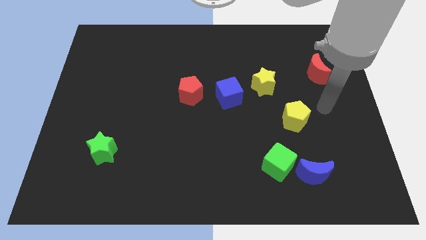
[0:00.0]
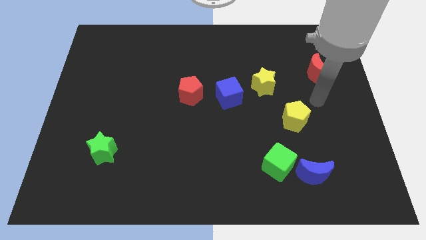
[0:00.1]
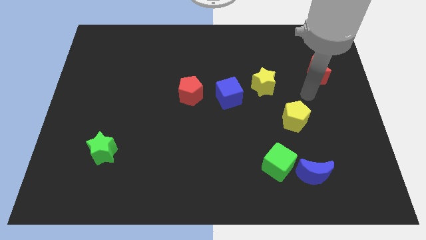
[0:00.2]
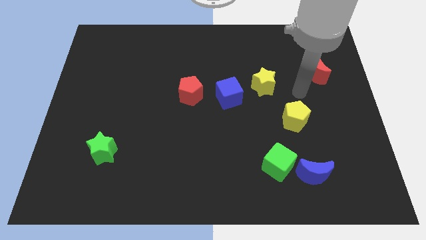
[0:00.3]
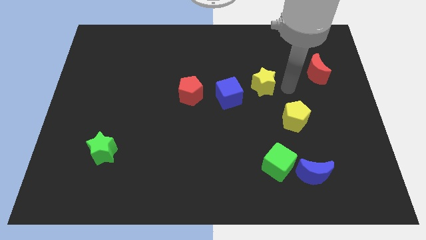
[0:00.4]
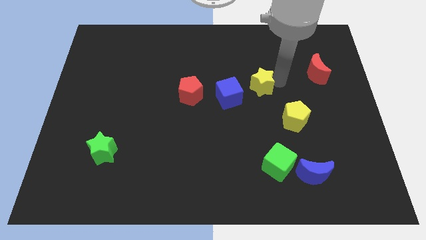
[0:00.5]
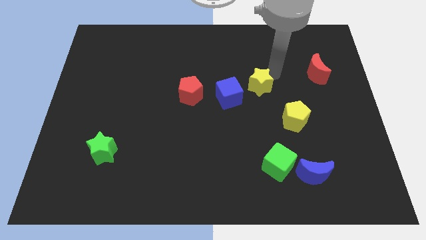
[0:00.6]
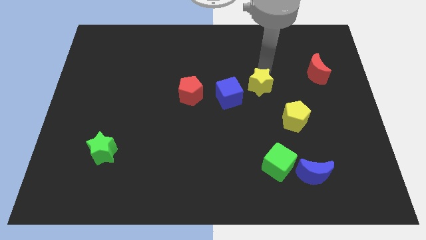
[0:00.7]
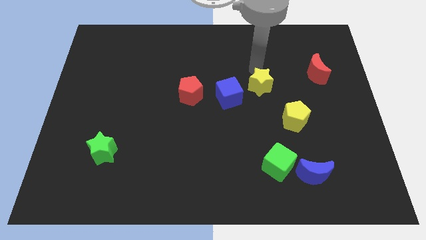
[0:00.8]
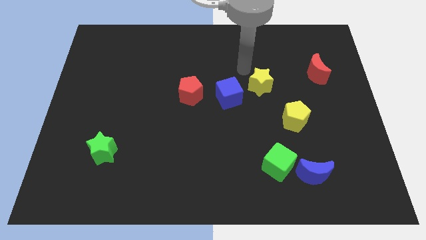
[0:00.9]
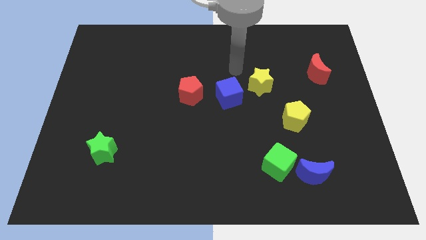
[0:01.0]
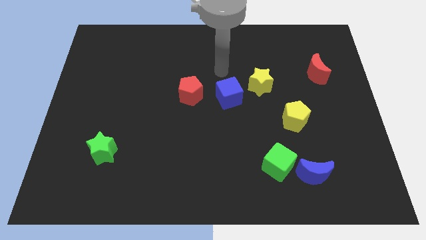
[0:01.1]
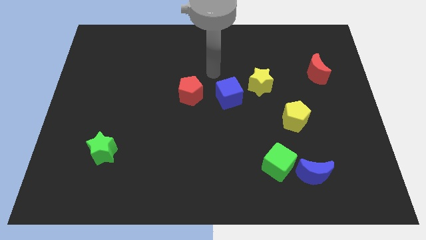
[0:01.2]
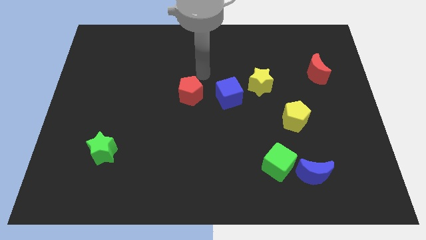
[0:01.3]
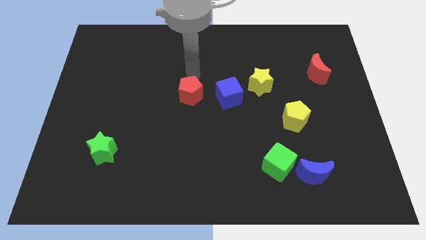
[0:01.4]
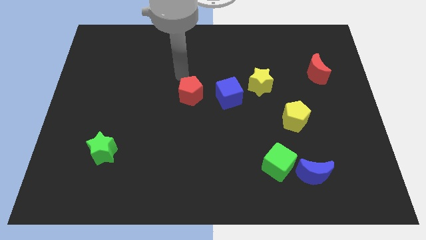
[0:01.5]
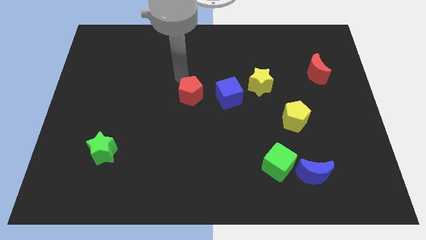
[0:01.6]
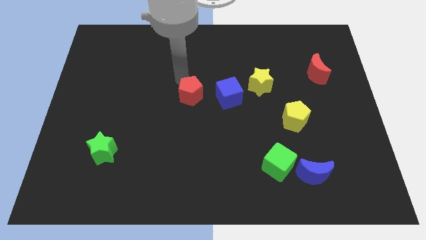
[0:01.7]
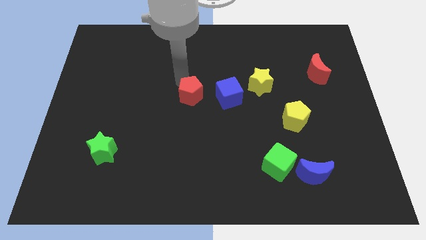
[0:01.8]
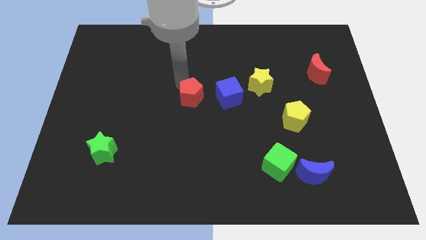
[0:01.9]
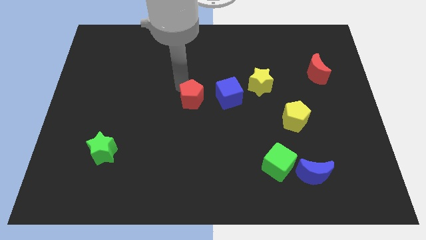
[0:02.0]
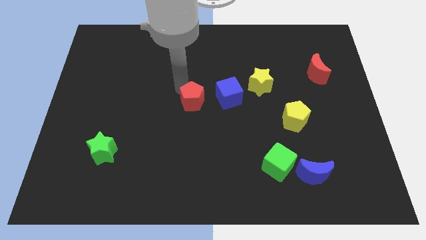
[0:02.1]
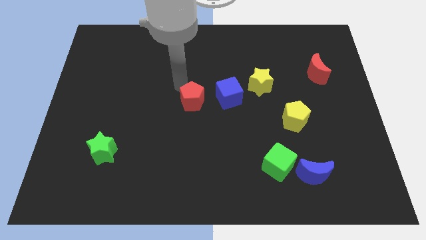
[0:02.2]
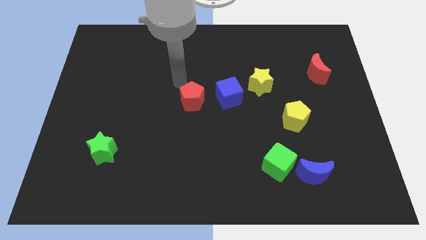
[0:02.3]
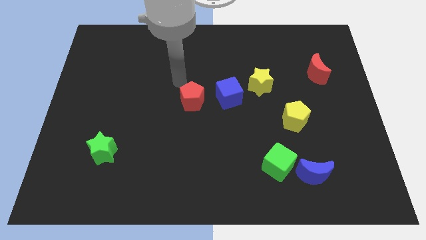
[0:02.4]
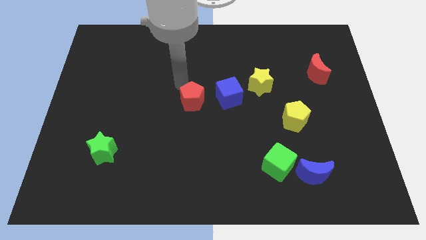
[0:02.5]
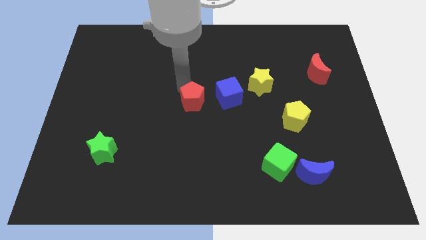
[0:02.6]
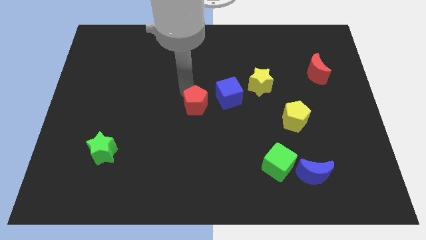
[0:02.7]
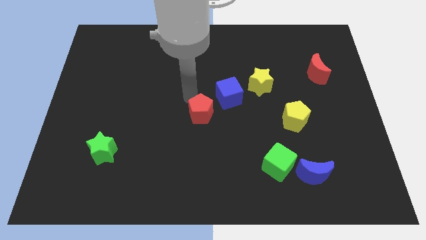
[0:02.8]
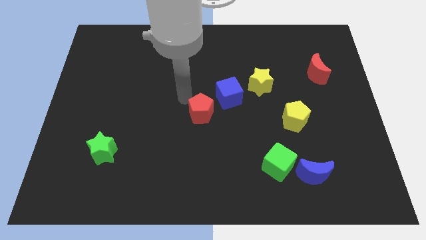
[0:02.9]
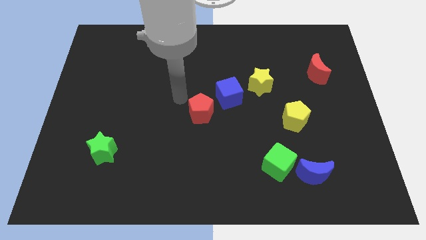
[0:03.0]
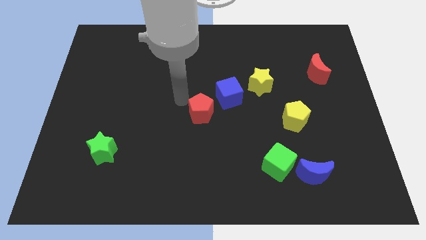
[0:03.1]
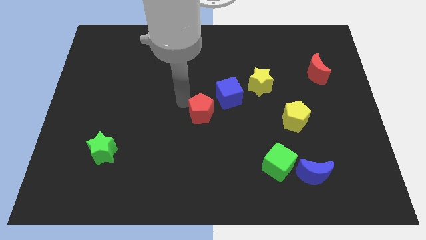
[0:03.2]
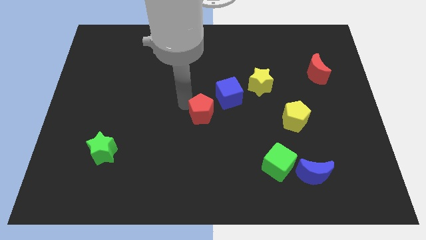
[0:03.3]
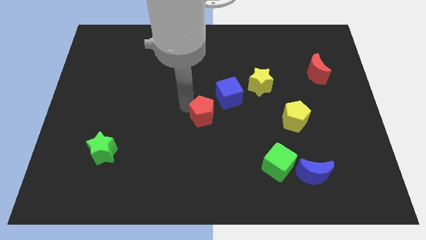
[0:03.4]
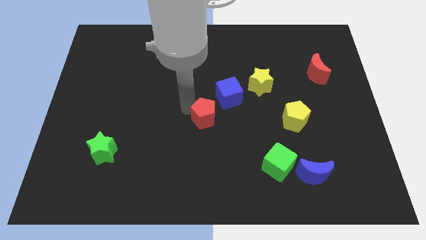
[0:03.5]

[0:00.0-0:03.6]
push the red pentagon somewhat down and then right

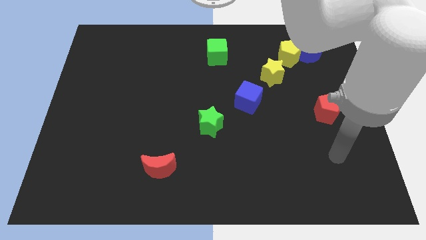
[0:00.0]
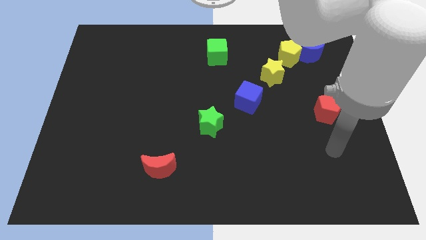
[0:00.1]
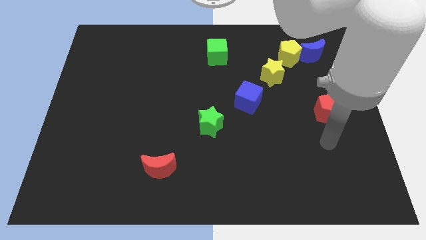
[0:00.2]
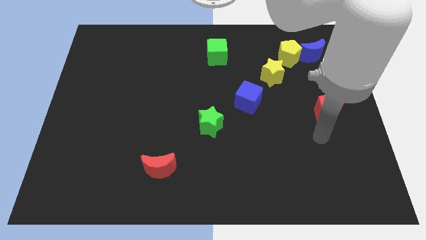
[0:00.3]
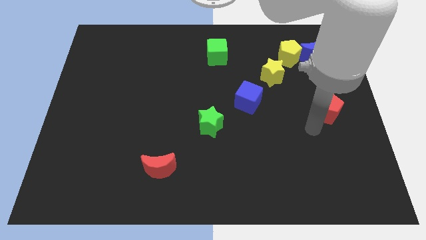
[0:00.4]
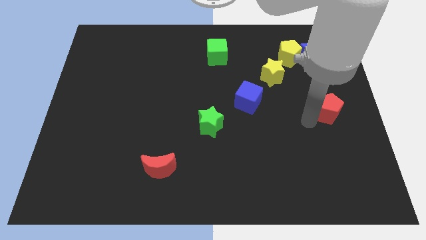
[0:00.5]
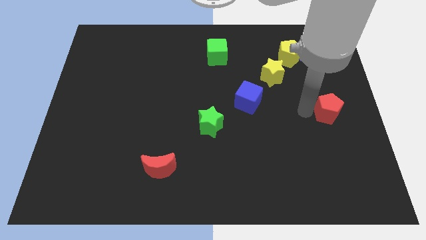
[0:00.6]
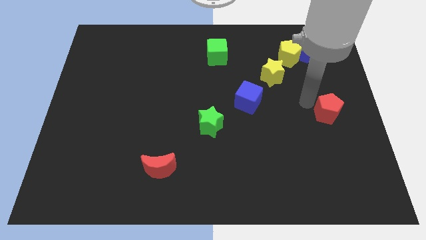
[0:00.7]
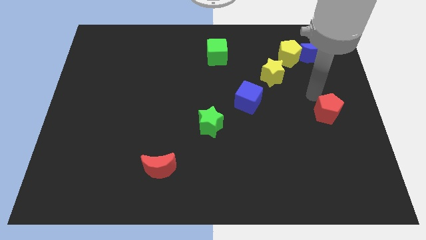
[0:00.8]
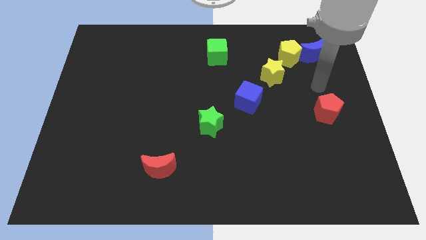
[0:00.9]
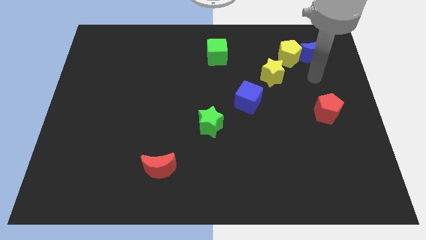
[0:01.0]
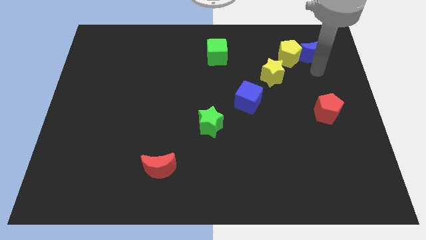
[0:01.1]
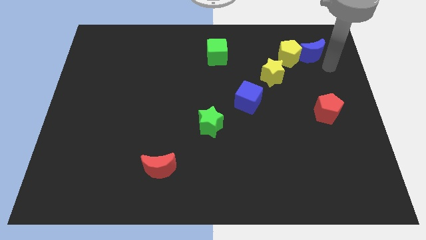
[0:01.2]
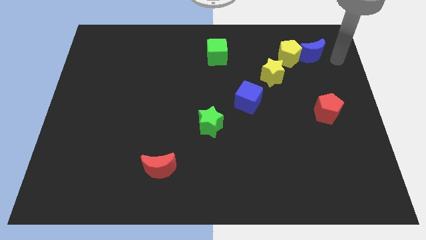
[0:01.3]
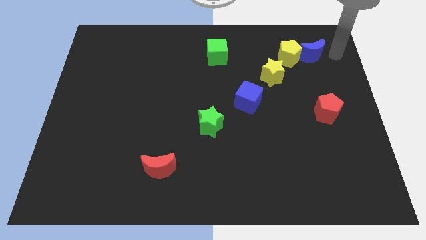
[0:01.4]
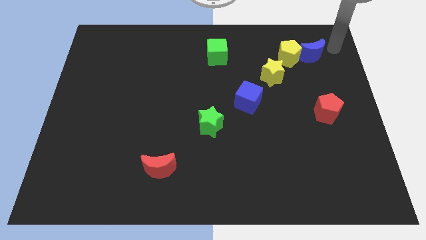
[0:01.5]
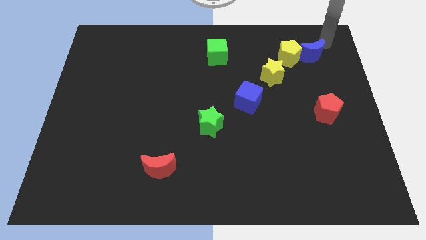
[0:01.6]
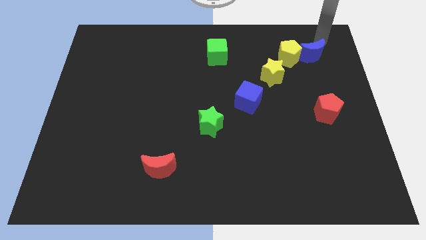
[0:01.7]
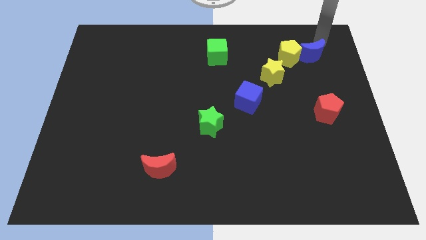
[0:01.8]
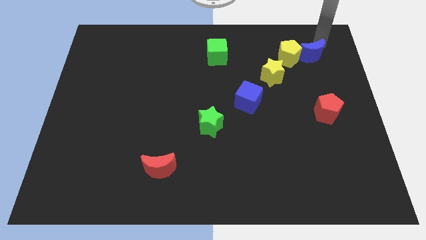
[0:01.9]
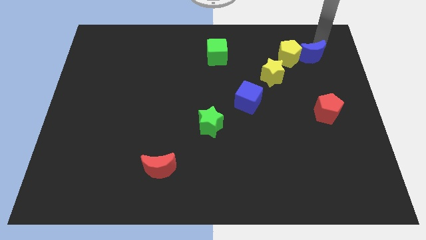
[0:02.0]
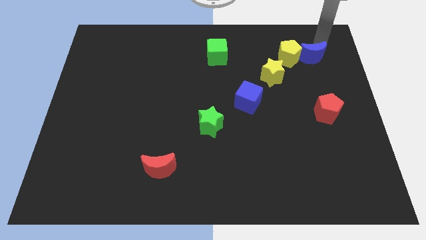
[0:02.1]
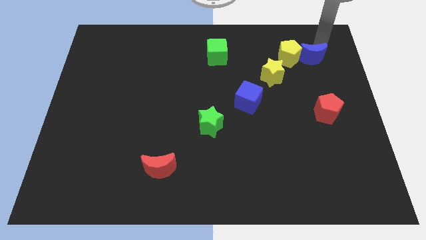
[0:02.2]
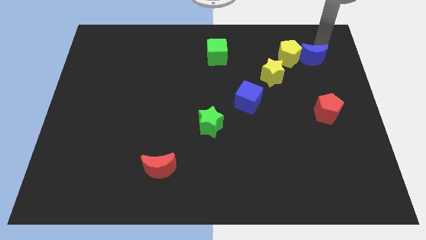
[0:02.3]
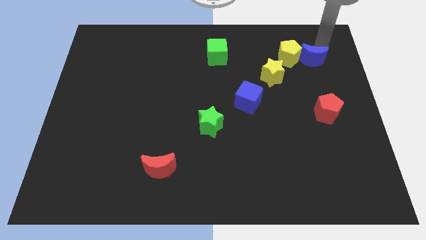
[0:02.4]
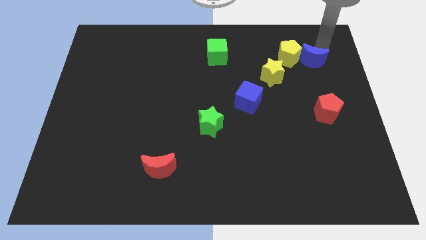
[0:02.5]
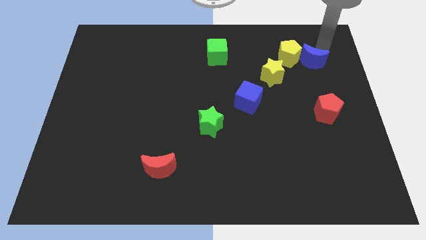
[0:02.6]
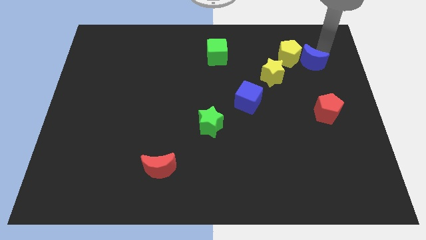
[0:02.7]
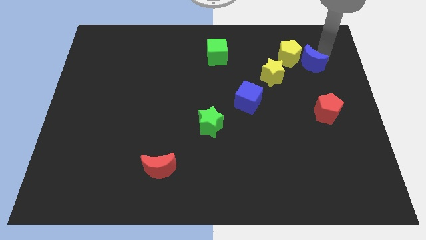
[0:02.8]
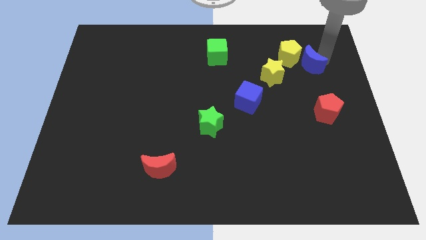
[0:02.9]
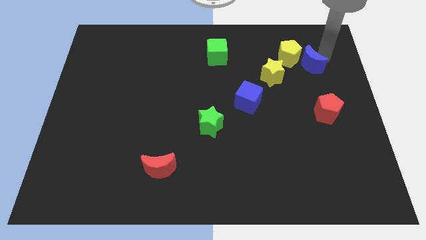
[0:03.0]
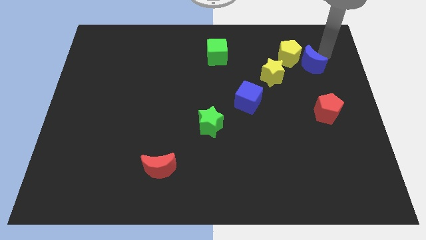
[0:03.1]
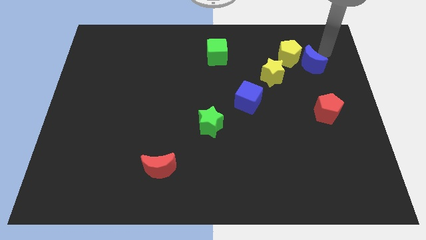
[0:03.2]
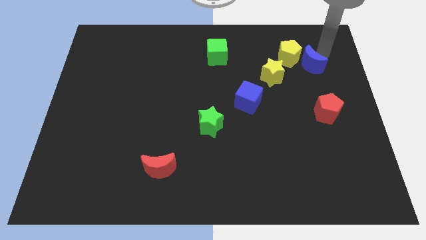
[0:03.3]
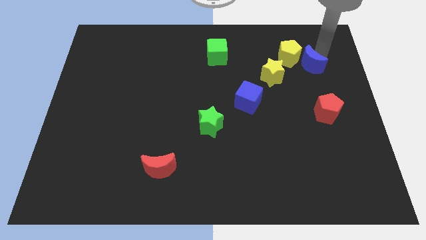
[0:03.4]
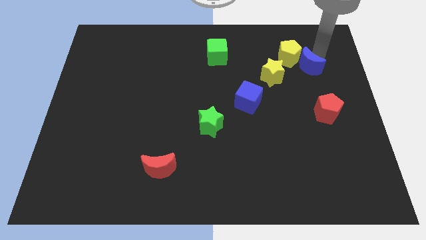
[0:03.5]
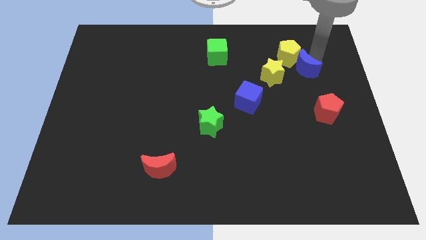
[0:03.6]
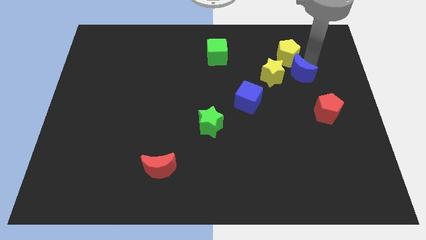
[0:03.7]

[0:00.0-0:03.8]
push the blue moon somewhat down and to the left diagonally
